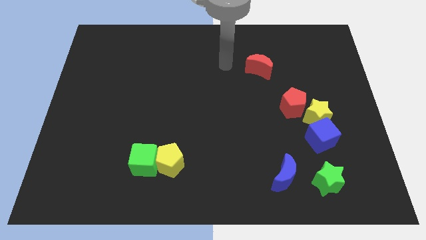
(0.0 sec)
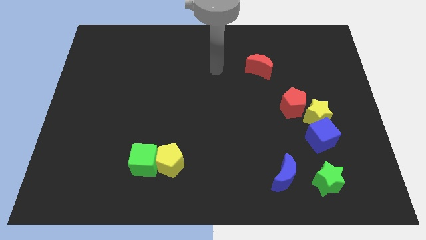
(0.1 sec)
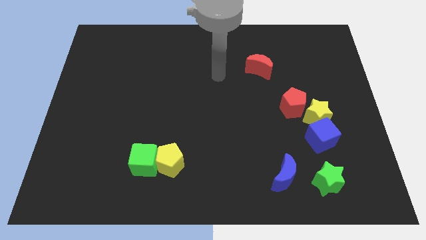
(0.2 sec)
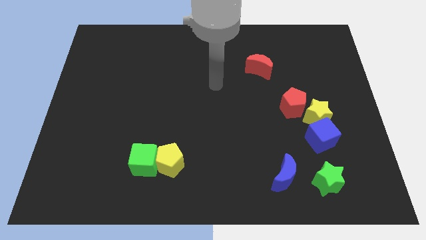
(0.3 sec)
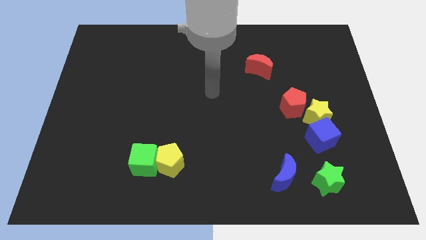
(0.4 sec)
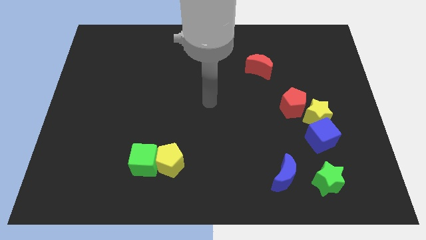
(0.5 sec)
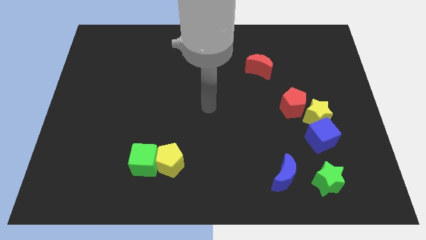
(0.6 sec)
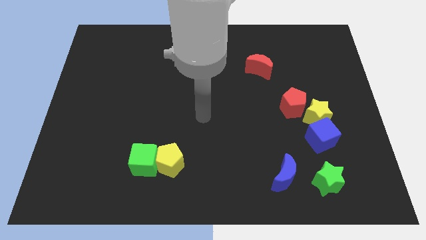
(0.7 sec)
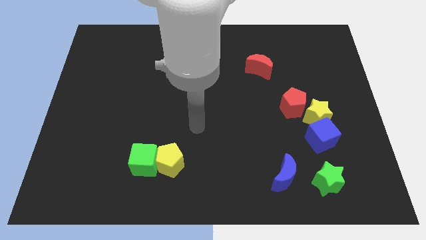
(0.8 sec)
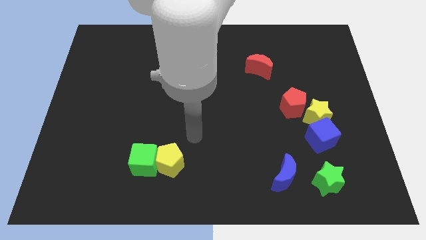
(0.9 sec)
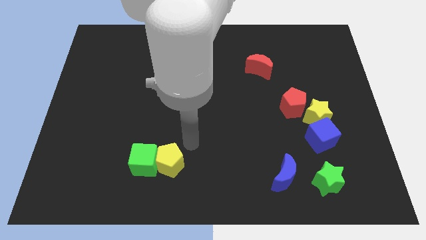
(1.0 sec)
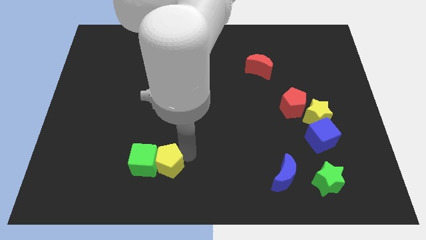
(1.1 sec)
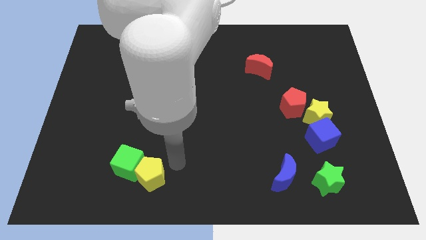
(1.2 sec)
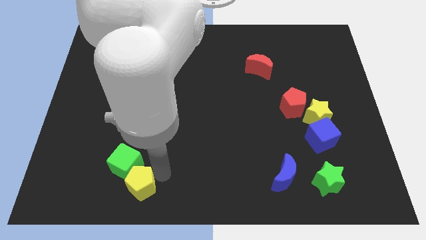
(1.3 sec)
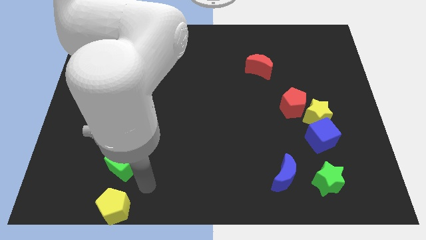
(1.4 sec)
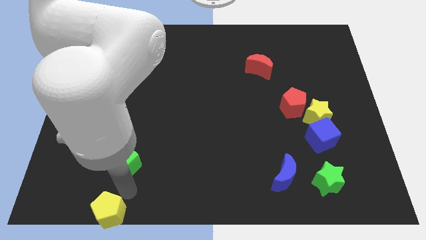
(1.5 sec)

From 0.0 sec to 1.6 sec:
pull the green cube apart from the yellow pentagon

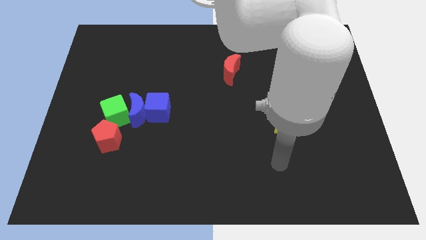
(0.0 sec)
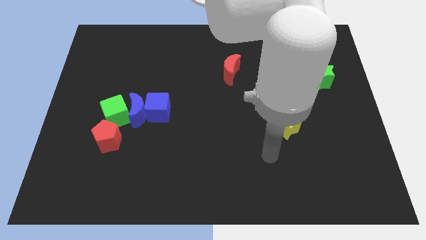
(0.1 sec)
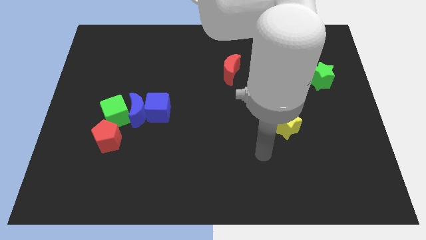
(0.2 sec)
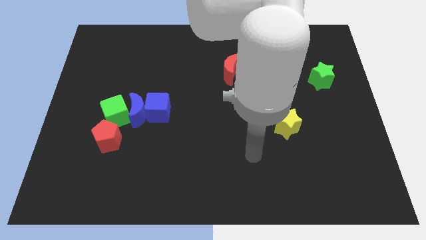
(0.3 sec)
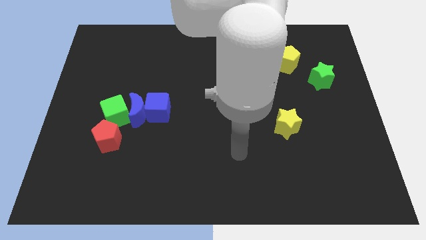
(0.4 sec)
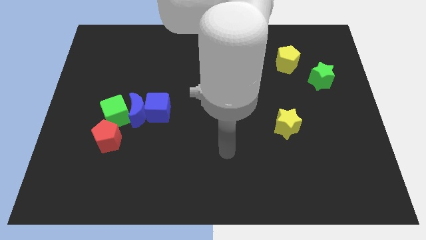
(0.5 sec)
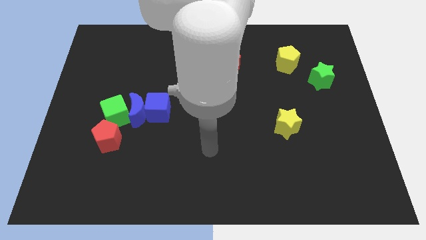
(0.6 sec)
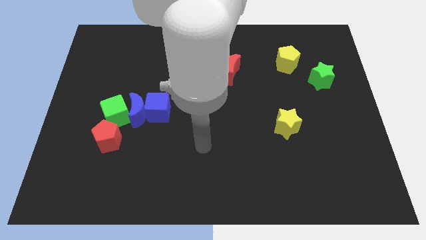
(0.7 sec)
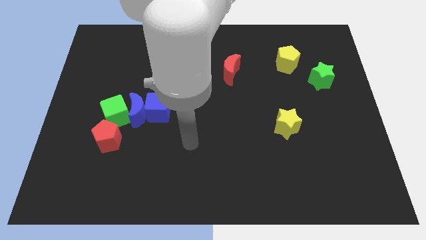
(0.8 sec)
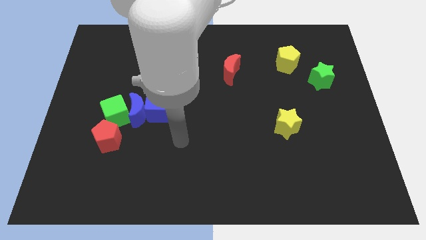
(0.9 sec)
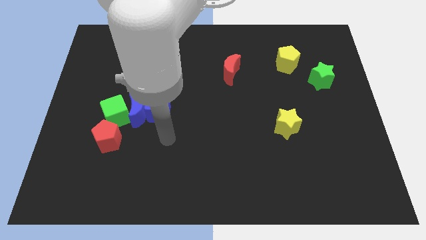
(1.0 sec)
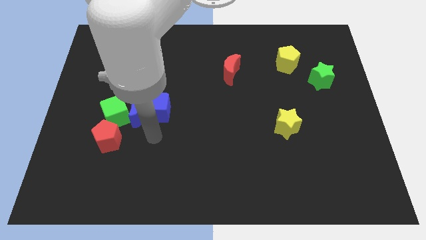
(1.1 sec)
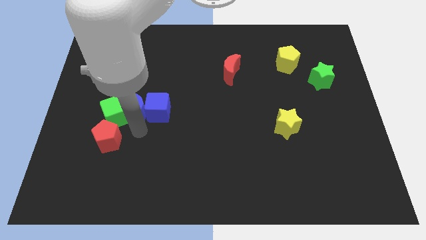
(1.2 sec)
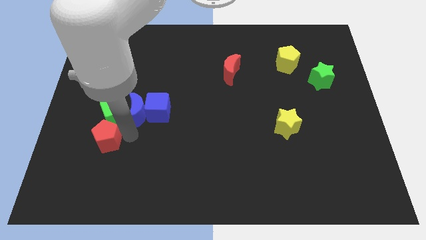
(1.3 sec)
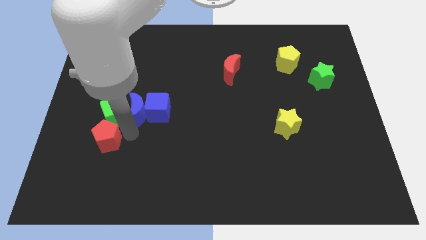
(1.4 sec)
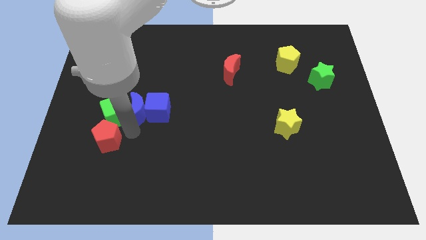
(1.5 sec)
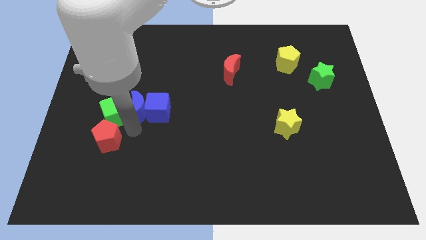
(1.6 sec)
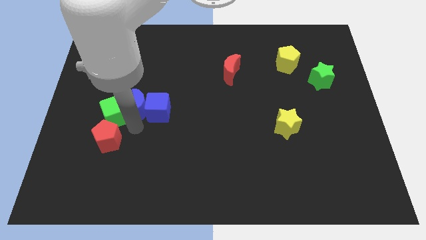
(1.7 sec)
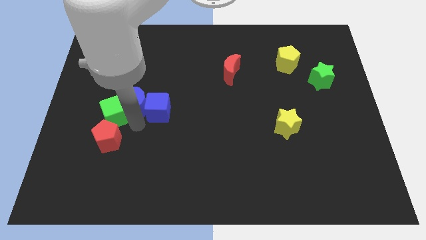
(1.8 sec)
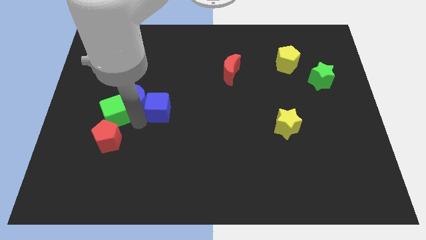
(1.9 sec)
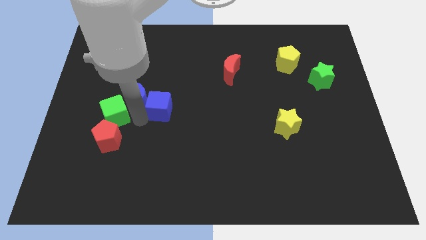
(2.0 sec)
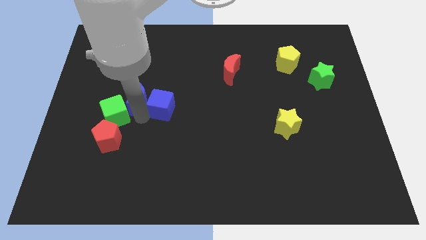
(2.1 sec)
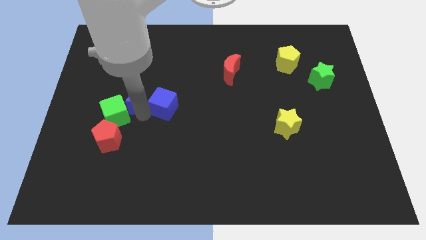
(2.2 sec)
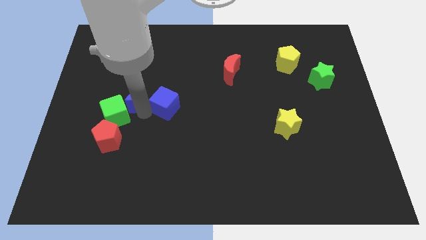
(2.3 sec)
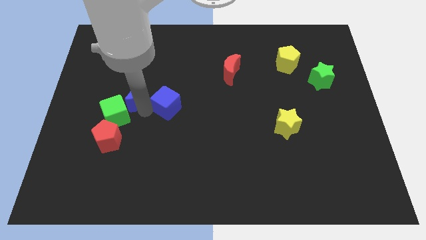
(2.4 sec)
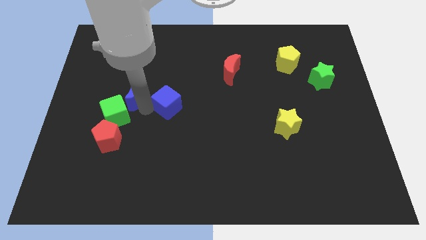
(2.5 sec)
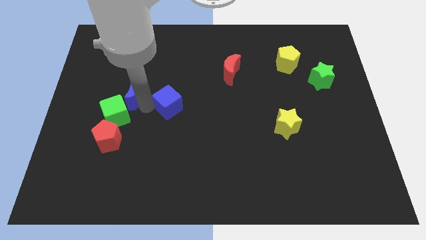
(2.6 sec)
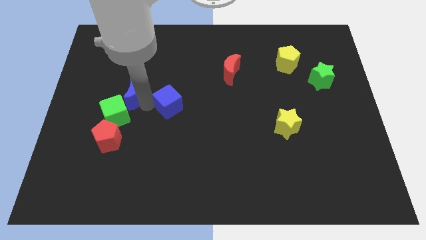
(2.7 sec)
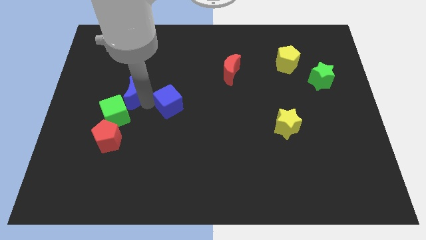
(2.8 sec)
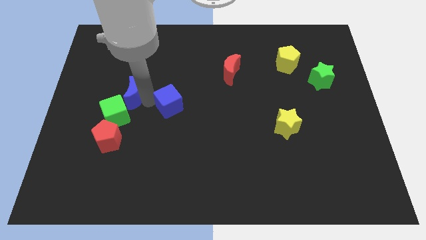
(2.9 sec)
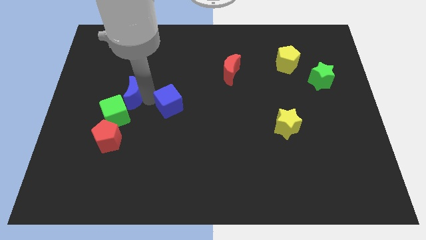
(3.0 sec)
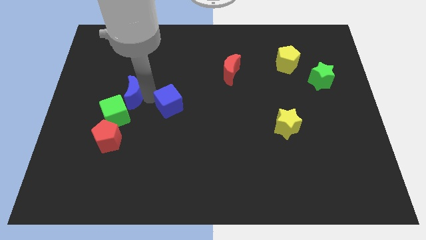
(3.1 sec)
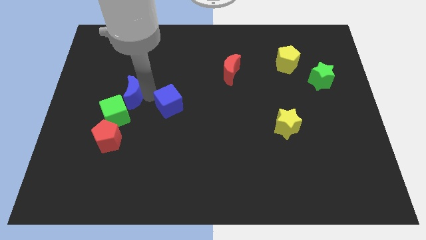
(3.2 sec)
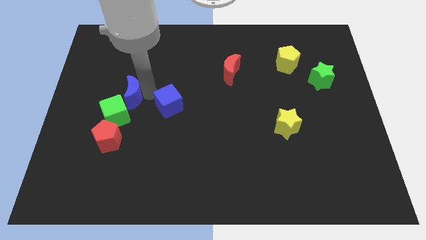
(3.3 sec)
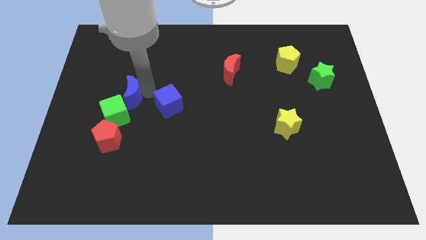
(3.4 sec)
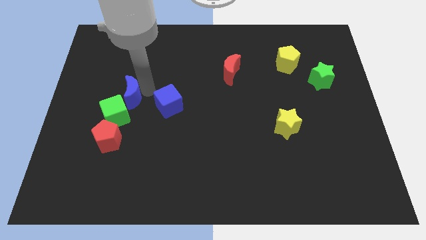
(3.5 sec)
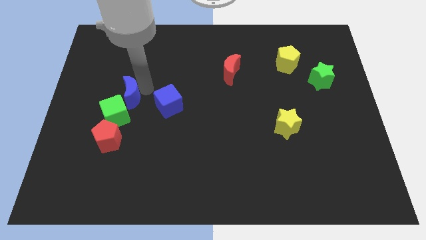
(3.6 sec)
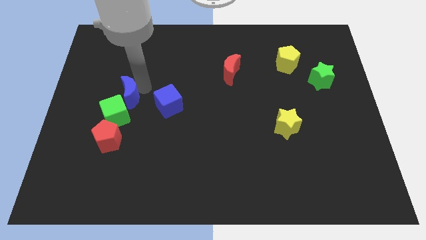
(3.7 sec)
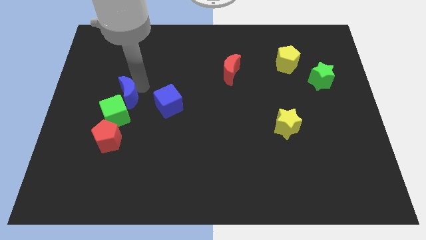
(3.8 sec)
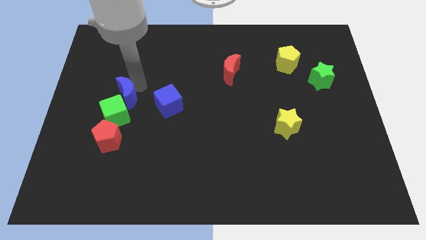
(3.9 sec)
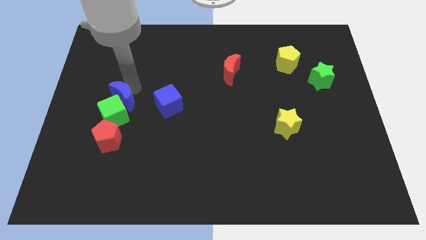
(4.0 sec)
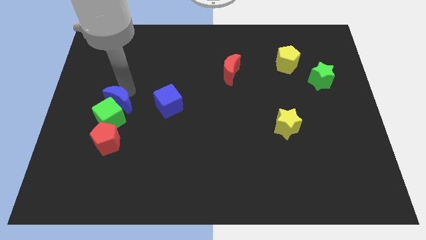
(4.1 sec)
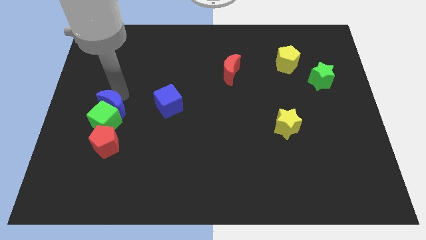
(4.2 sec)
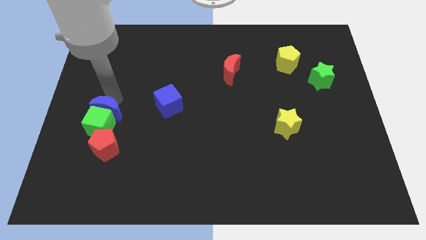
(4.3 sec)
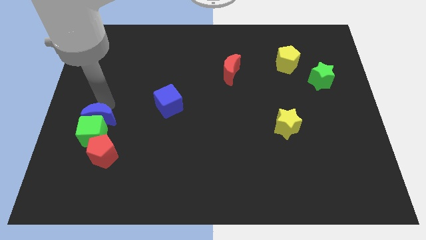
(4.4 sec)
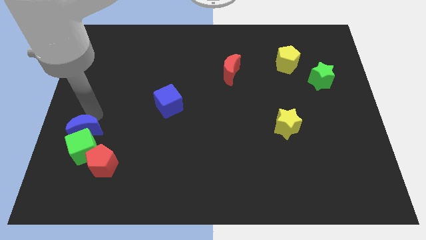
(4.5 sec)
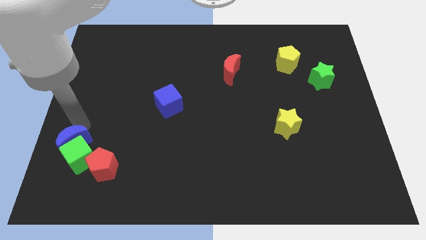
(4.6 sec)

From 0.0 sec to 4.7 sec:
pull the blue moon apart from the group

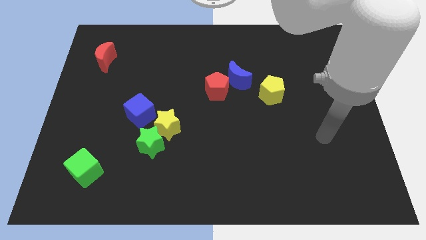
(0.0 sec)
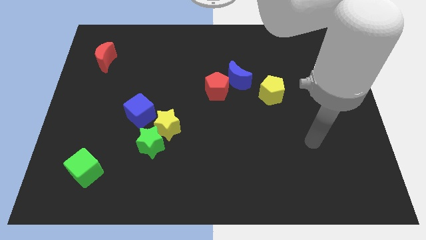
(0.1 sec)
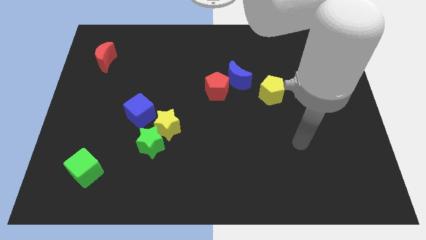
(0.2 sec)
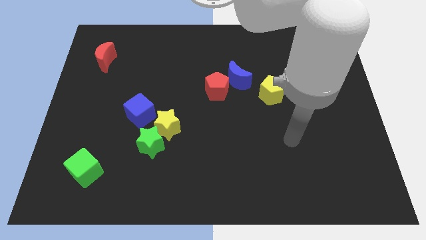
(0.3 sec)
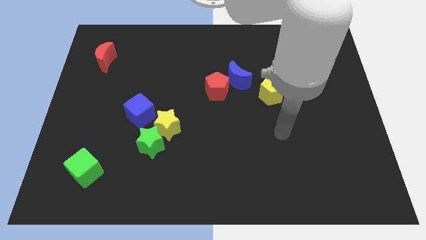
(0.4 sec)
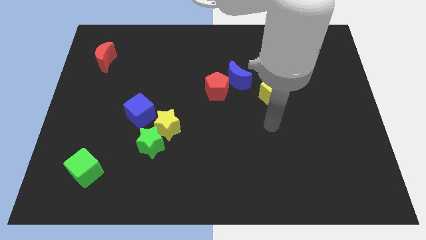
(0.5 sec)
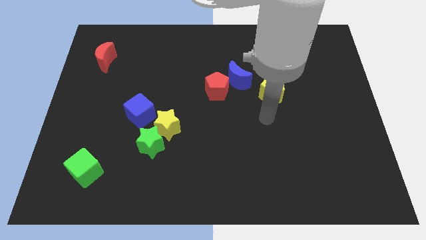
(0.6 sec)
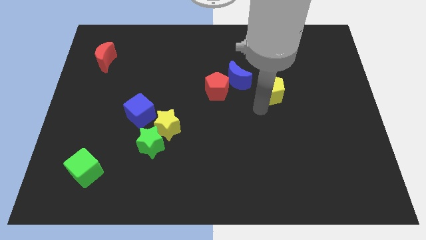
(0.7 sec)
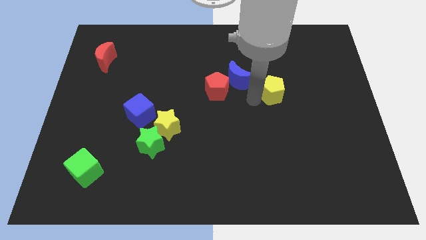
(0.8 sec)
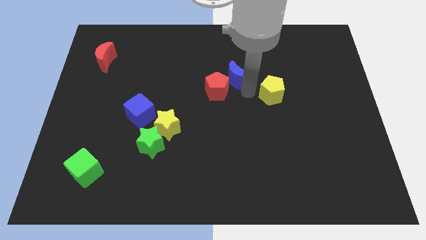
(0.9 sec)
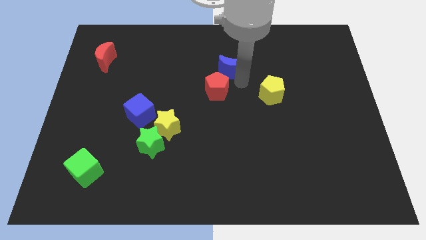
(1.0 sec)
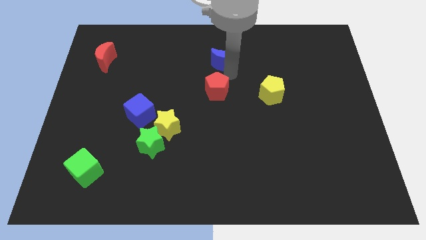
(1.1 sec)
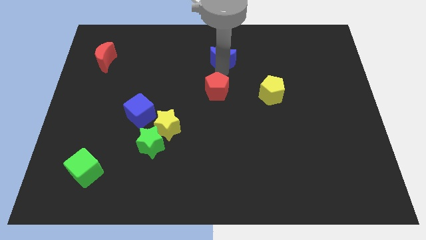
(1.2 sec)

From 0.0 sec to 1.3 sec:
separate the red pentagon from the blue moon

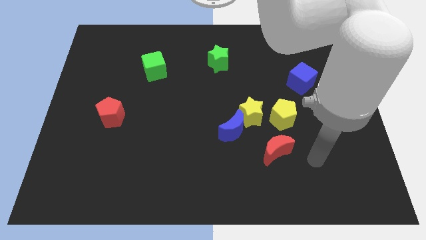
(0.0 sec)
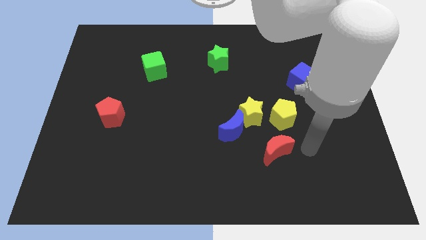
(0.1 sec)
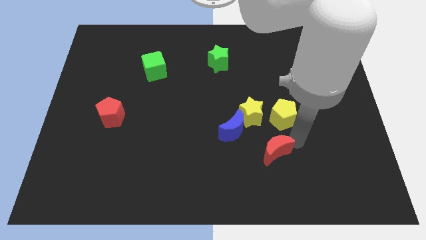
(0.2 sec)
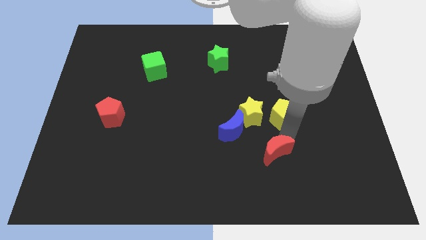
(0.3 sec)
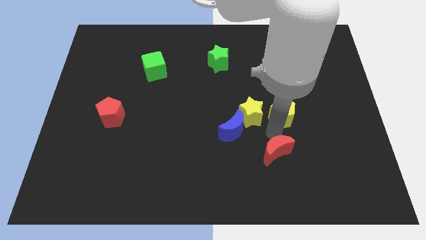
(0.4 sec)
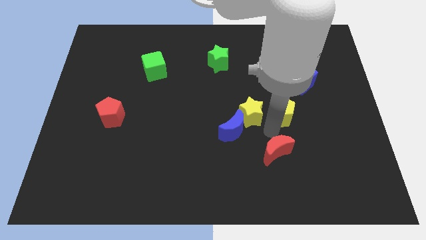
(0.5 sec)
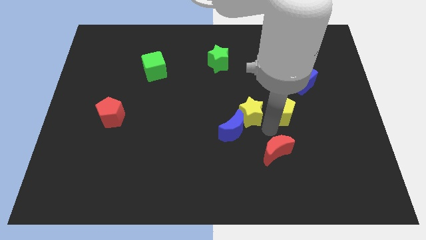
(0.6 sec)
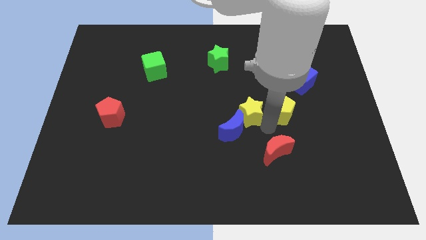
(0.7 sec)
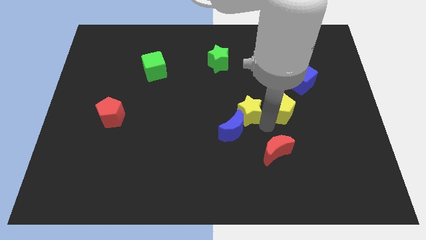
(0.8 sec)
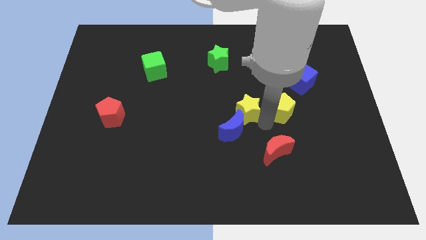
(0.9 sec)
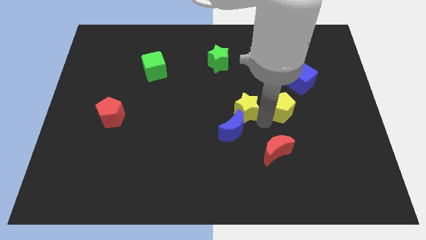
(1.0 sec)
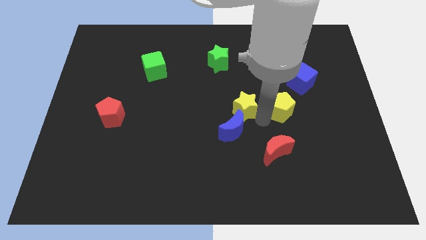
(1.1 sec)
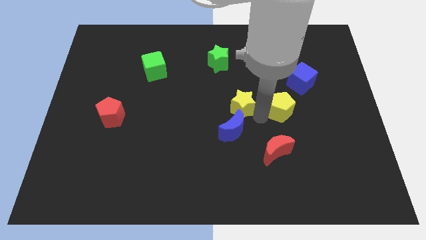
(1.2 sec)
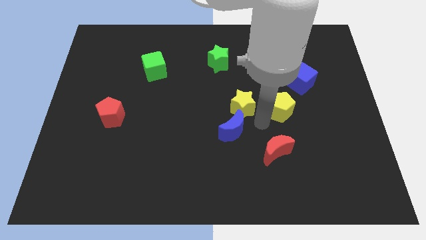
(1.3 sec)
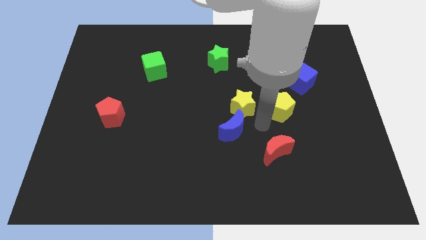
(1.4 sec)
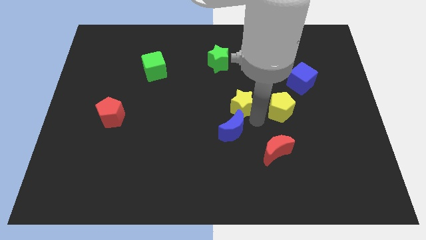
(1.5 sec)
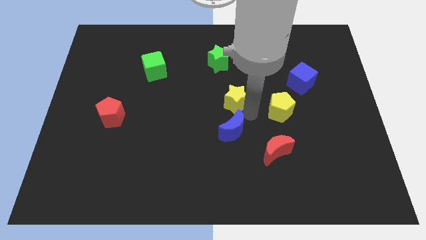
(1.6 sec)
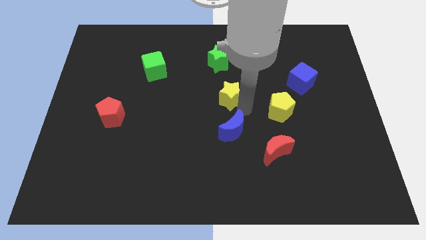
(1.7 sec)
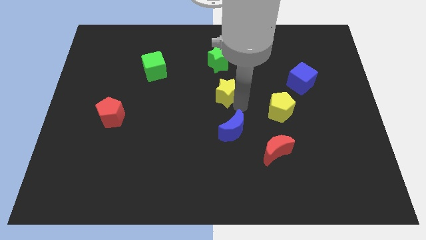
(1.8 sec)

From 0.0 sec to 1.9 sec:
separate the yellow star from the blue moon and yellow pentagon
